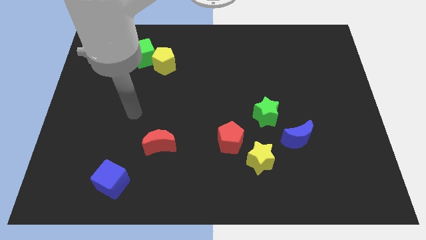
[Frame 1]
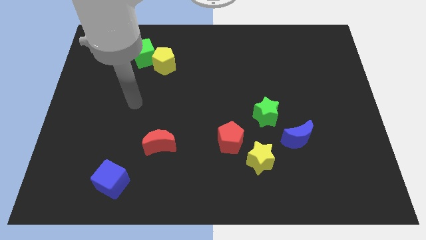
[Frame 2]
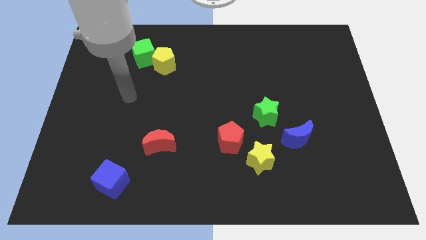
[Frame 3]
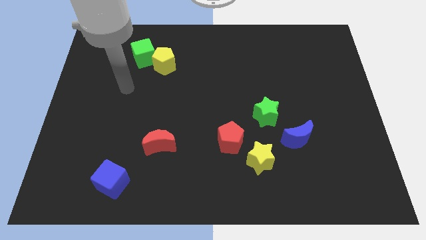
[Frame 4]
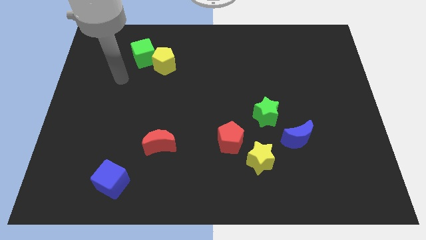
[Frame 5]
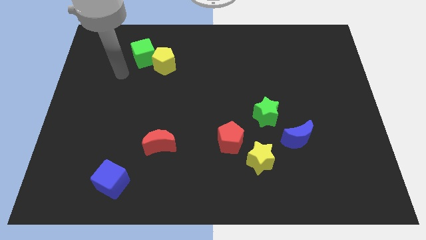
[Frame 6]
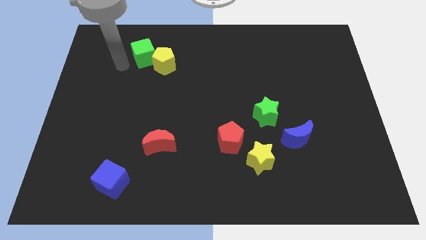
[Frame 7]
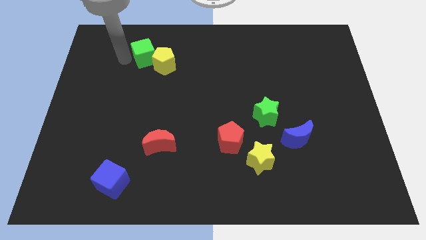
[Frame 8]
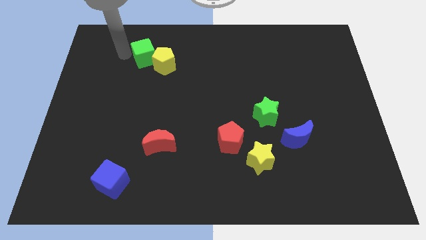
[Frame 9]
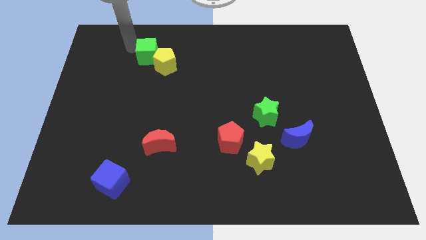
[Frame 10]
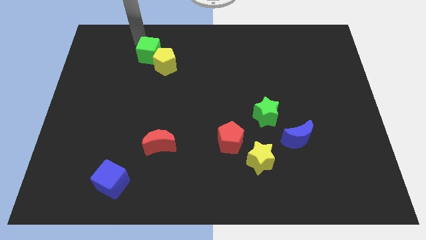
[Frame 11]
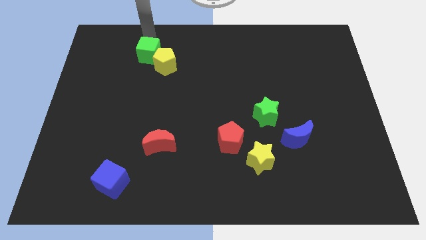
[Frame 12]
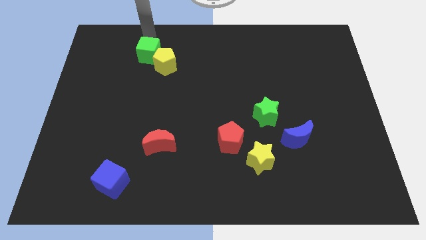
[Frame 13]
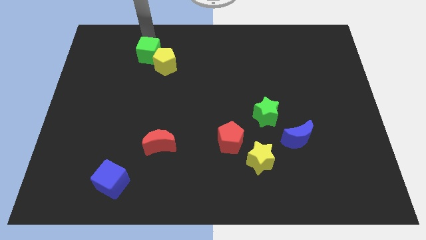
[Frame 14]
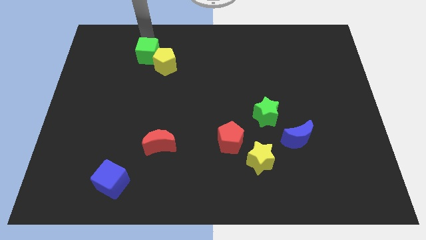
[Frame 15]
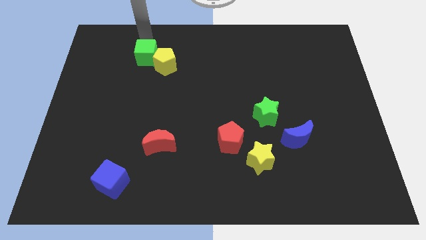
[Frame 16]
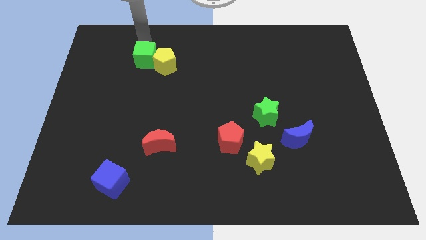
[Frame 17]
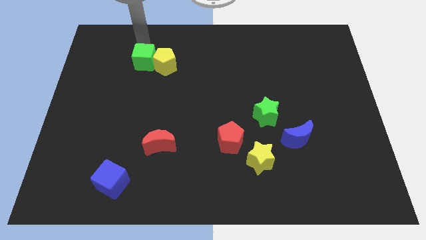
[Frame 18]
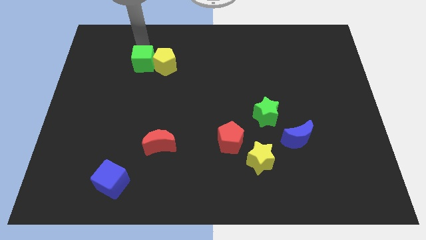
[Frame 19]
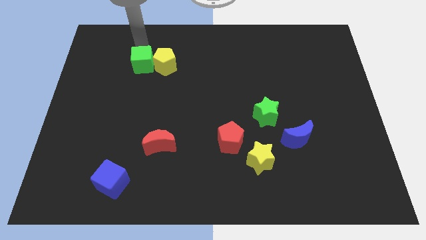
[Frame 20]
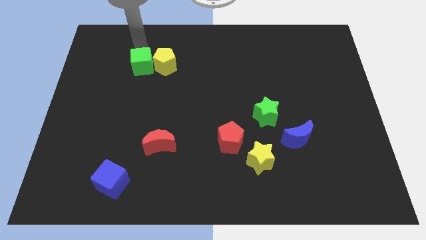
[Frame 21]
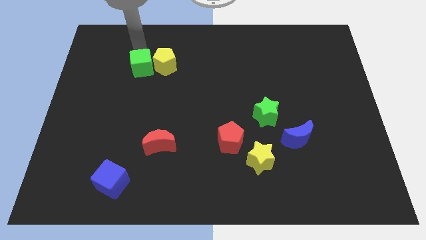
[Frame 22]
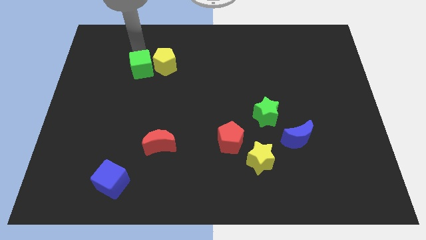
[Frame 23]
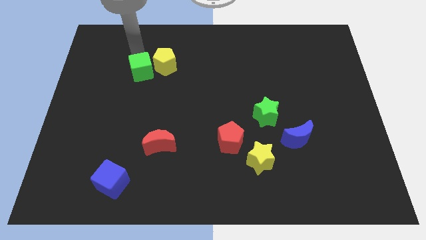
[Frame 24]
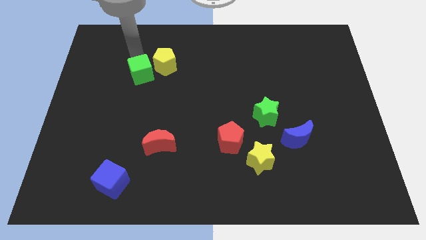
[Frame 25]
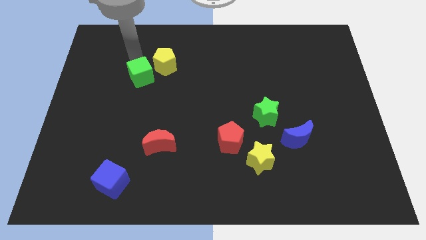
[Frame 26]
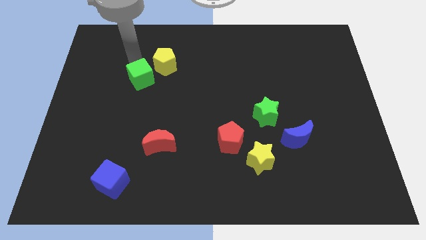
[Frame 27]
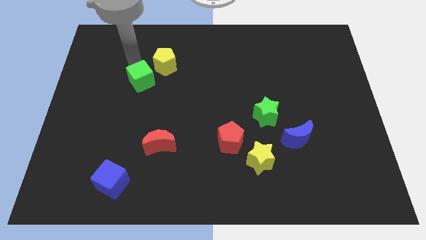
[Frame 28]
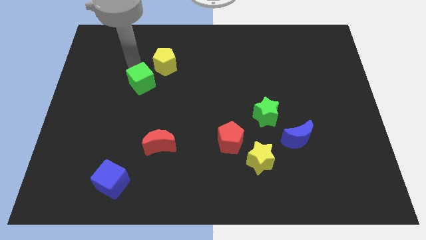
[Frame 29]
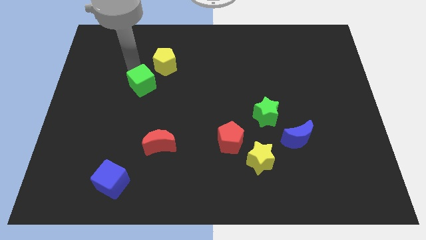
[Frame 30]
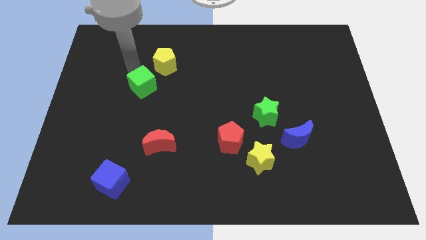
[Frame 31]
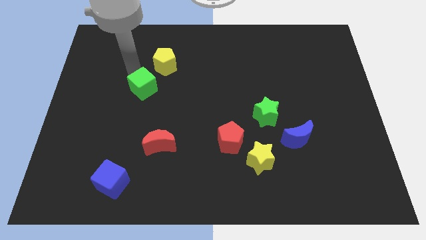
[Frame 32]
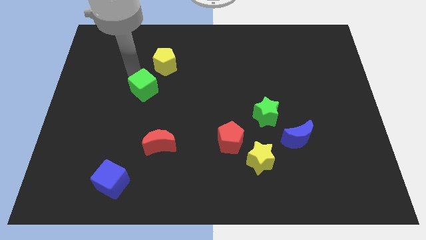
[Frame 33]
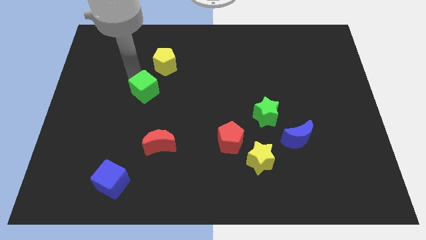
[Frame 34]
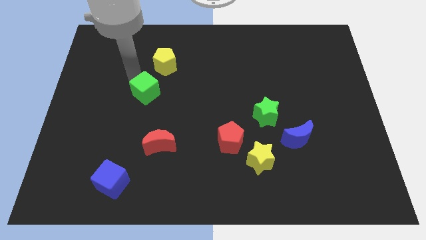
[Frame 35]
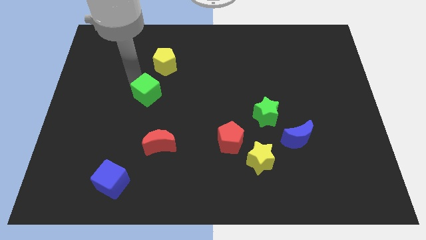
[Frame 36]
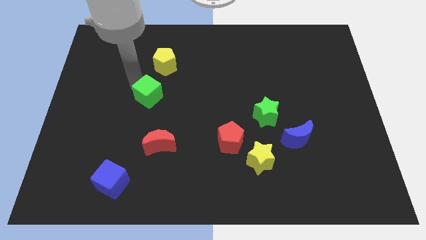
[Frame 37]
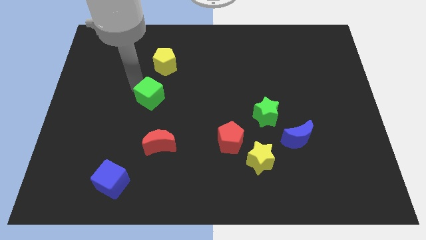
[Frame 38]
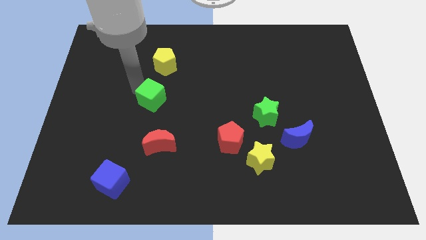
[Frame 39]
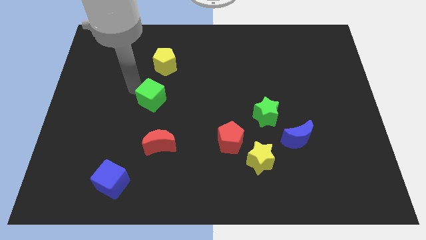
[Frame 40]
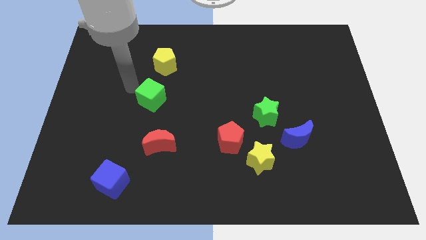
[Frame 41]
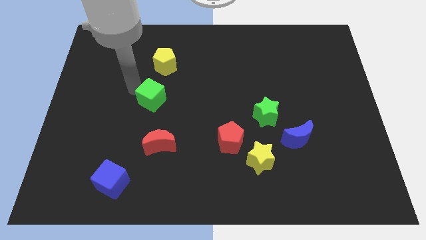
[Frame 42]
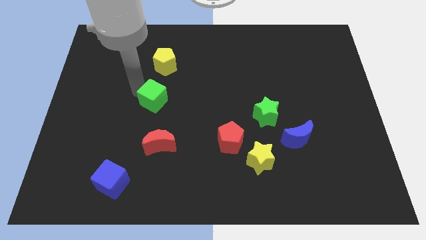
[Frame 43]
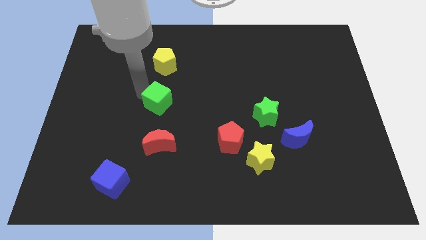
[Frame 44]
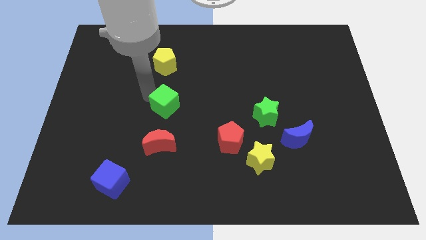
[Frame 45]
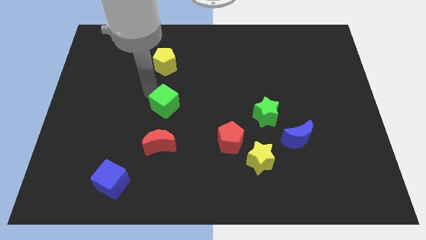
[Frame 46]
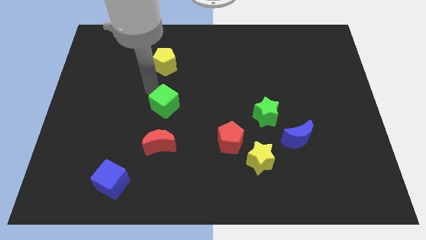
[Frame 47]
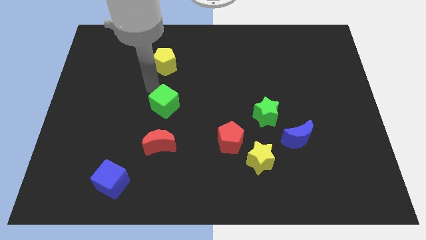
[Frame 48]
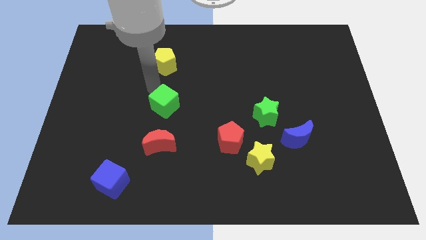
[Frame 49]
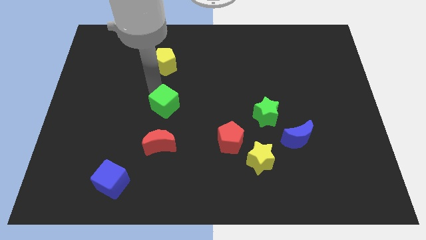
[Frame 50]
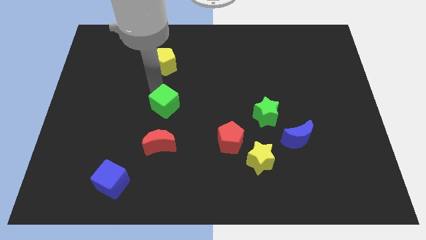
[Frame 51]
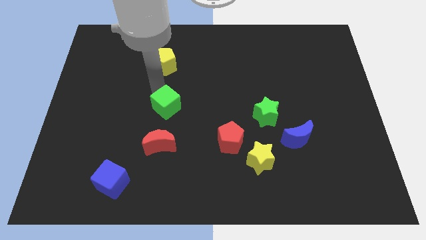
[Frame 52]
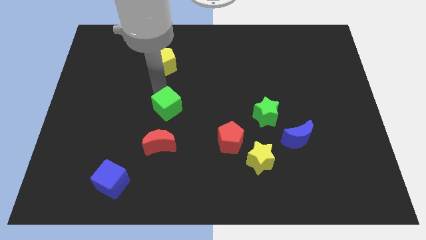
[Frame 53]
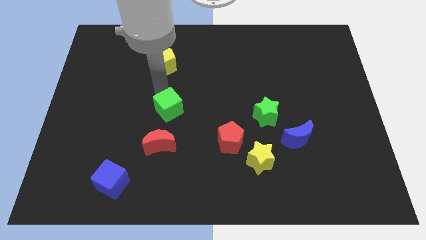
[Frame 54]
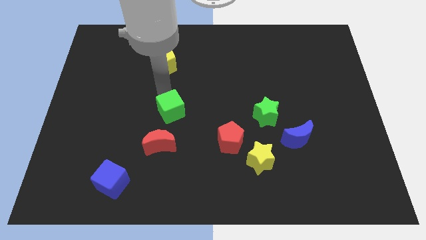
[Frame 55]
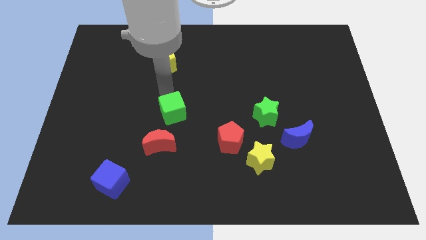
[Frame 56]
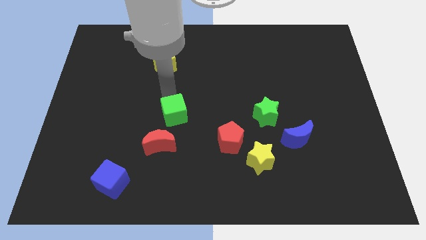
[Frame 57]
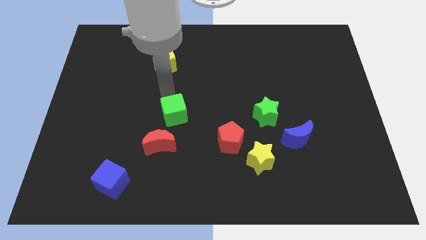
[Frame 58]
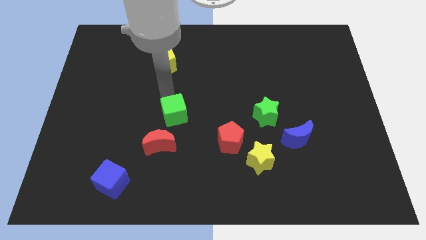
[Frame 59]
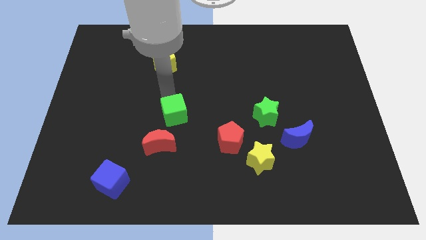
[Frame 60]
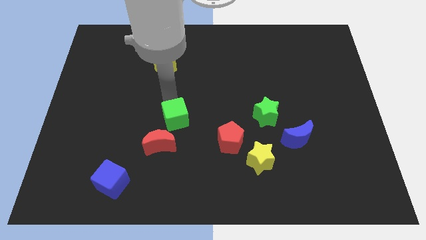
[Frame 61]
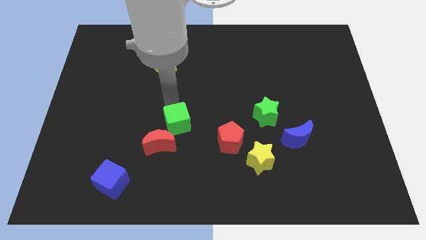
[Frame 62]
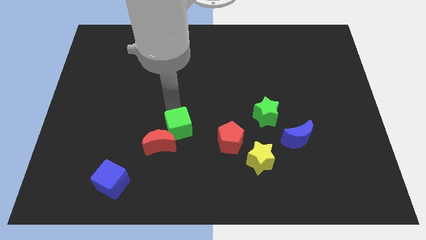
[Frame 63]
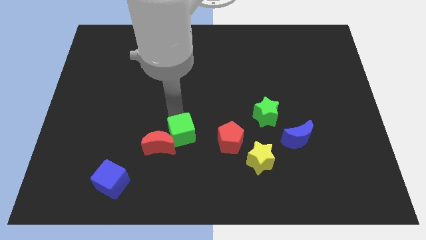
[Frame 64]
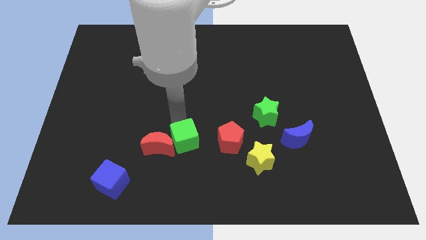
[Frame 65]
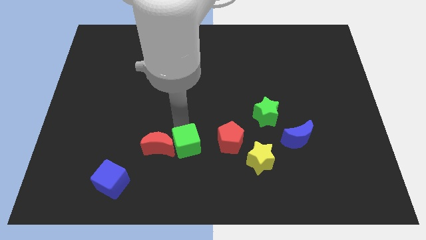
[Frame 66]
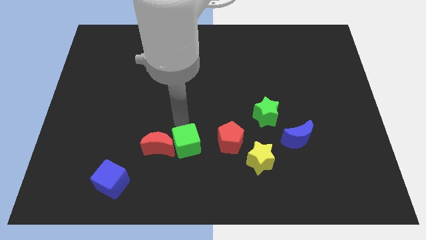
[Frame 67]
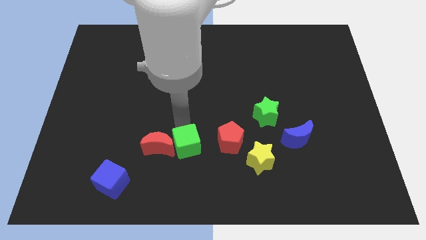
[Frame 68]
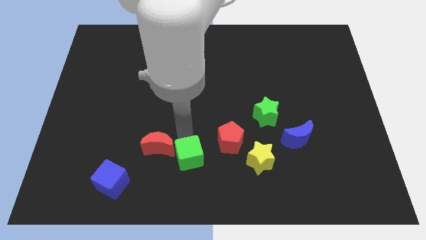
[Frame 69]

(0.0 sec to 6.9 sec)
move the green cube to the bottom

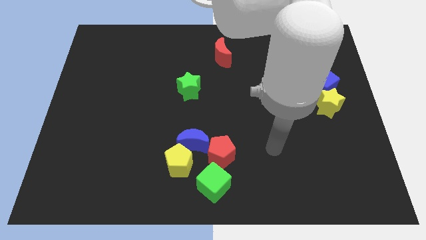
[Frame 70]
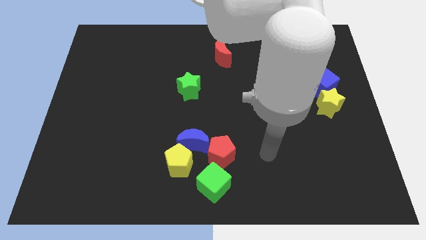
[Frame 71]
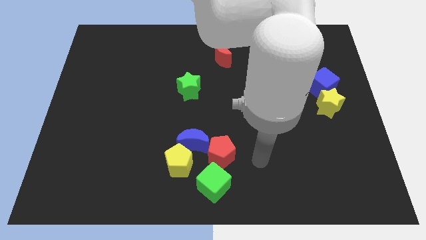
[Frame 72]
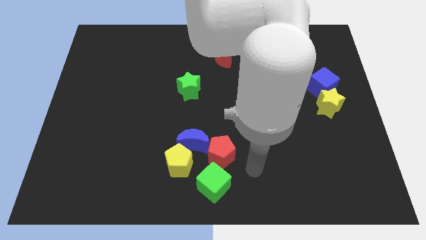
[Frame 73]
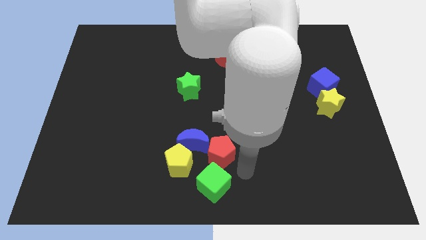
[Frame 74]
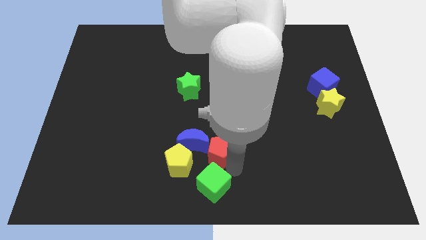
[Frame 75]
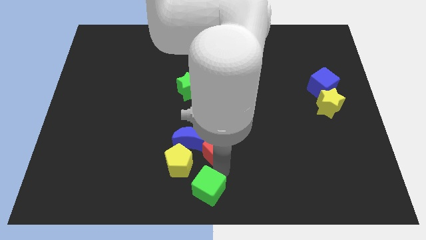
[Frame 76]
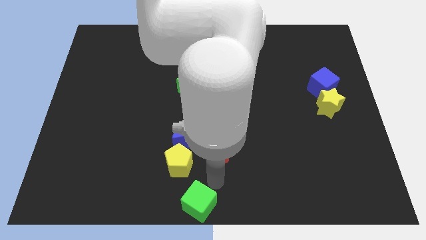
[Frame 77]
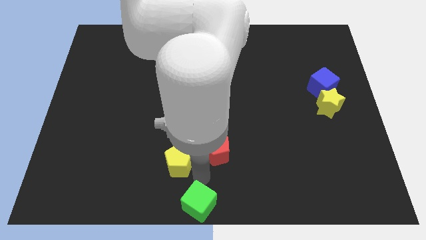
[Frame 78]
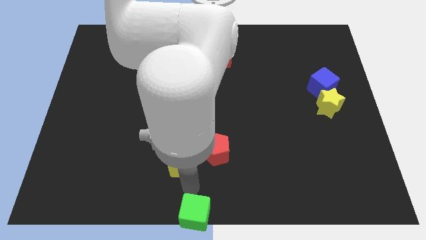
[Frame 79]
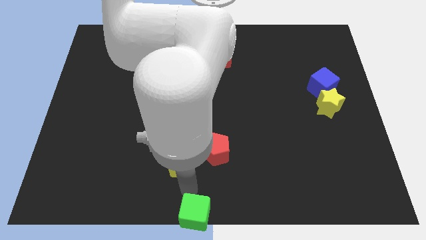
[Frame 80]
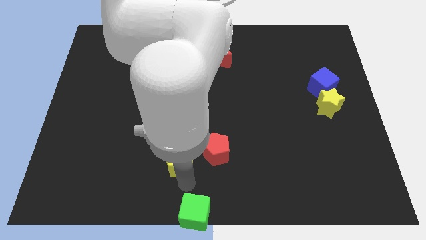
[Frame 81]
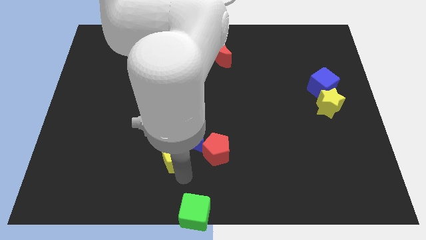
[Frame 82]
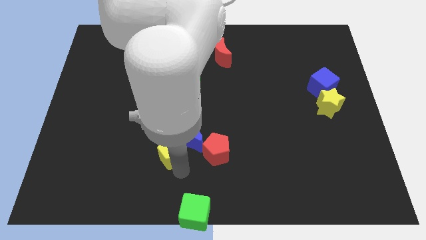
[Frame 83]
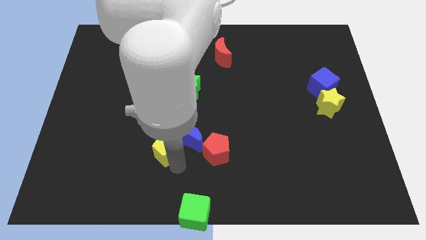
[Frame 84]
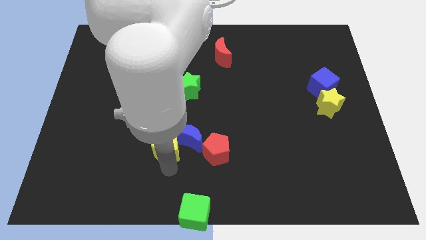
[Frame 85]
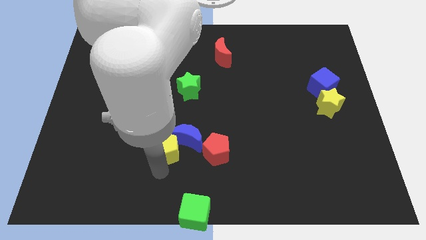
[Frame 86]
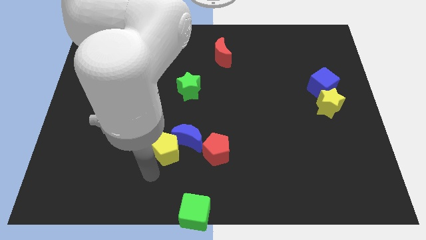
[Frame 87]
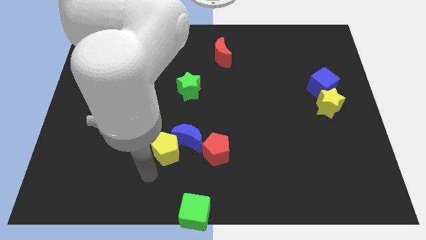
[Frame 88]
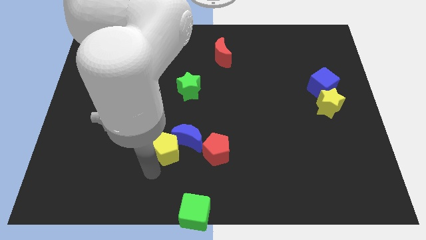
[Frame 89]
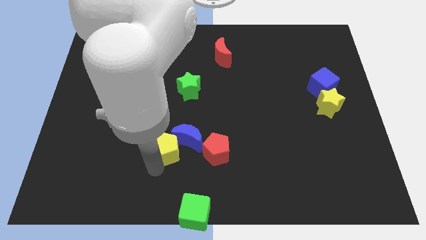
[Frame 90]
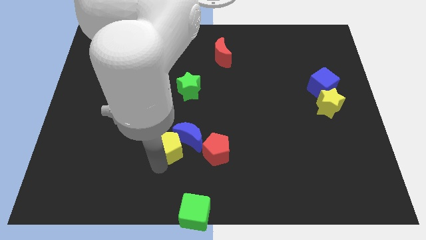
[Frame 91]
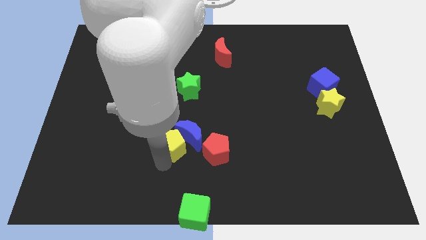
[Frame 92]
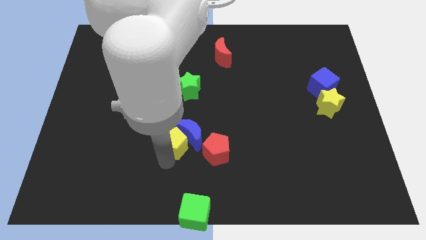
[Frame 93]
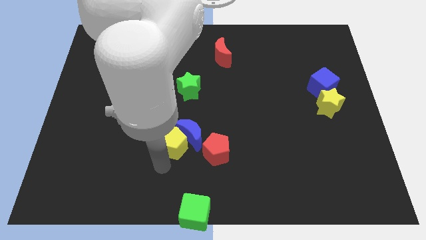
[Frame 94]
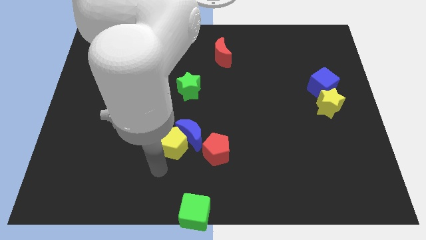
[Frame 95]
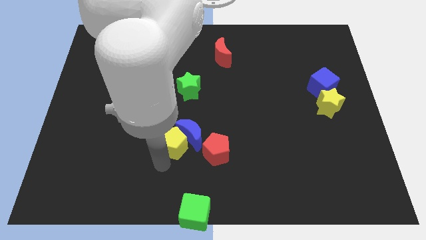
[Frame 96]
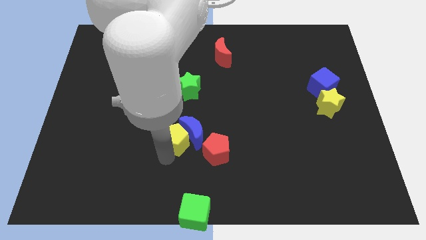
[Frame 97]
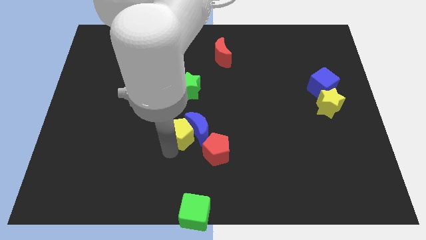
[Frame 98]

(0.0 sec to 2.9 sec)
push the yellow pentagon to the middle of the board
